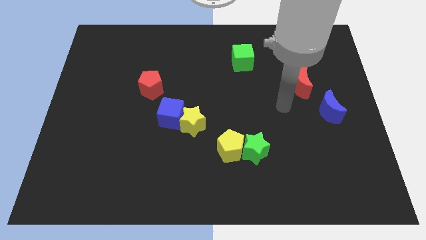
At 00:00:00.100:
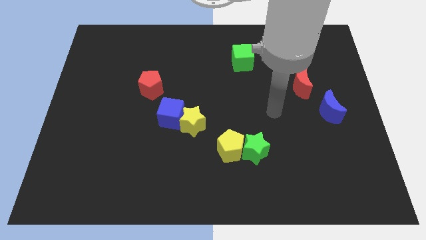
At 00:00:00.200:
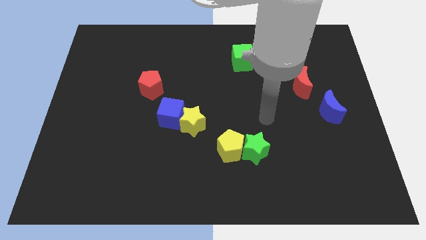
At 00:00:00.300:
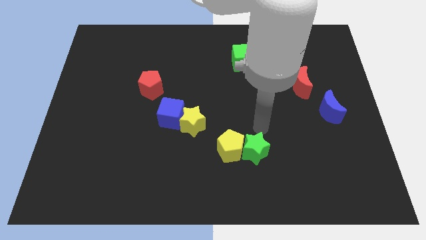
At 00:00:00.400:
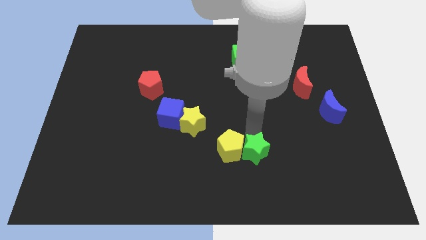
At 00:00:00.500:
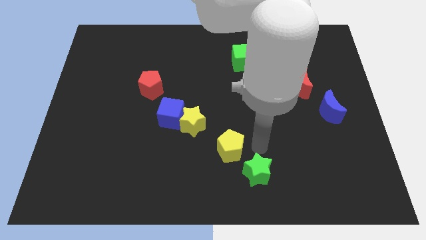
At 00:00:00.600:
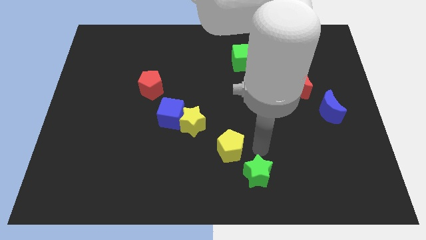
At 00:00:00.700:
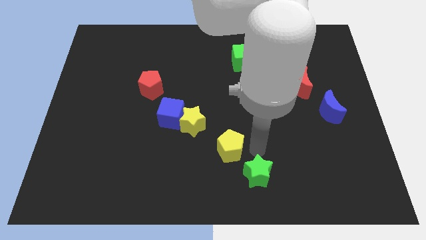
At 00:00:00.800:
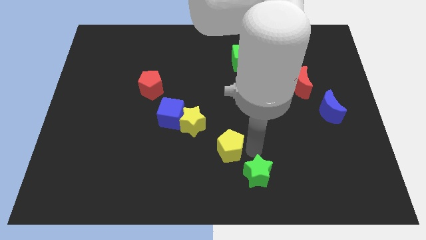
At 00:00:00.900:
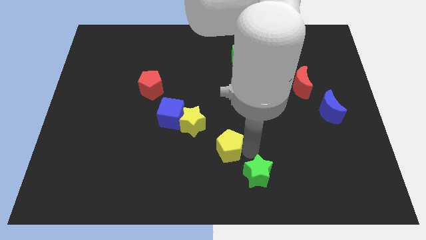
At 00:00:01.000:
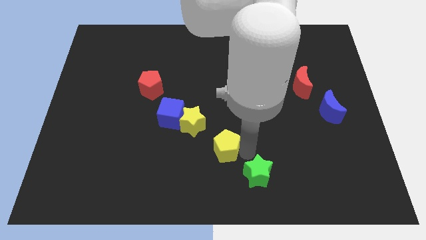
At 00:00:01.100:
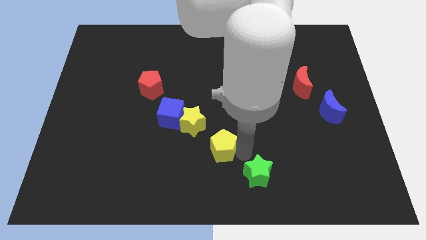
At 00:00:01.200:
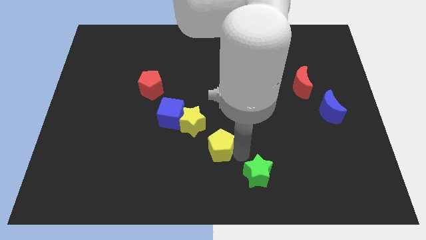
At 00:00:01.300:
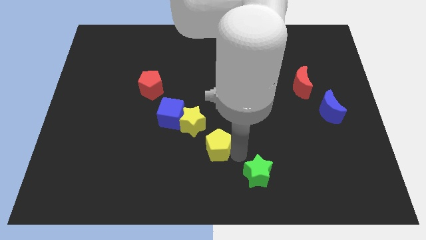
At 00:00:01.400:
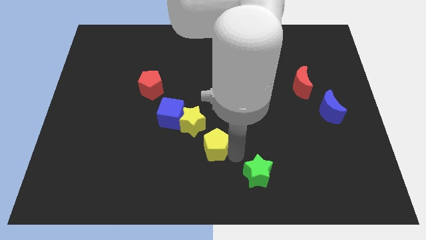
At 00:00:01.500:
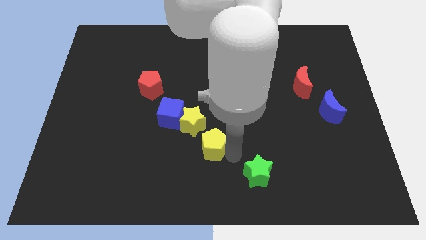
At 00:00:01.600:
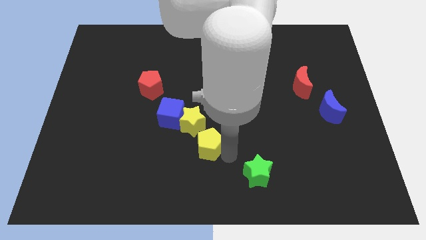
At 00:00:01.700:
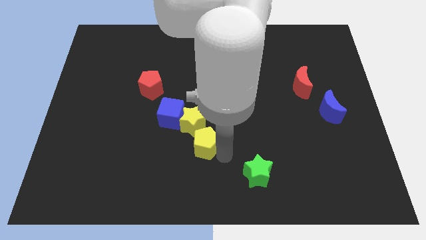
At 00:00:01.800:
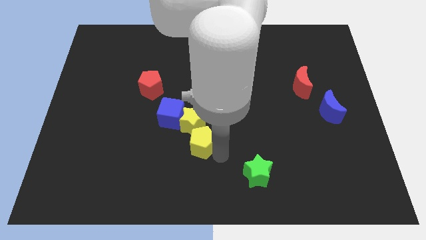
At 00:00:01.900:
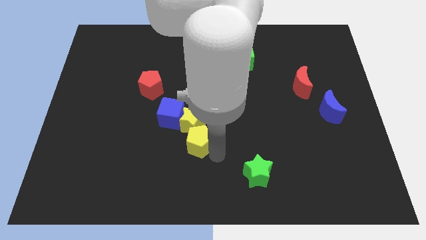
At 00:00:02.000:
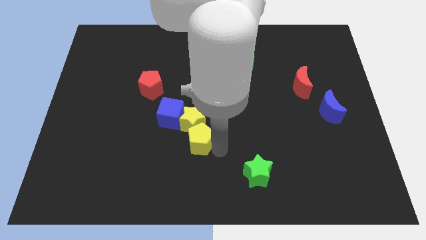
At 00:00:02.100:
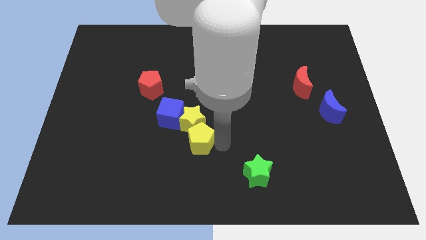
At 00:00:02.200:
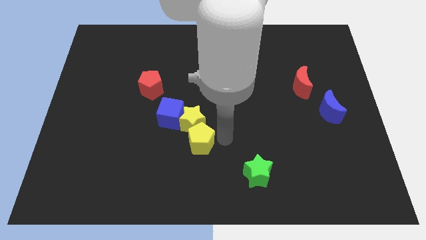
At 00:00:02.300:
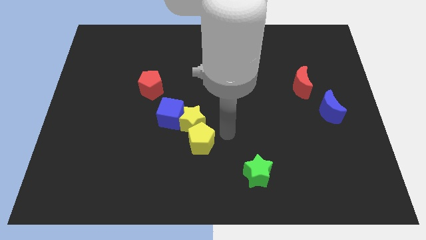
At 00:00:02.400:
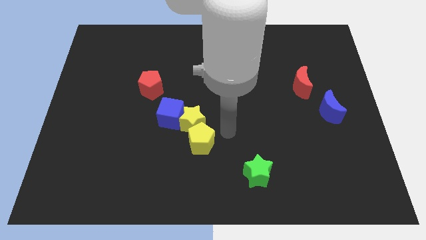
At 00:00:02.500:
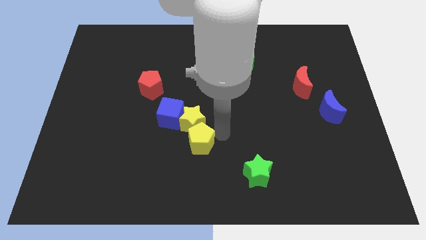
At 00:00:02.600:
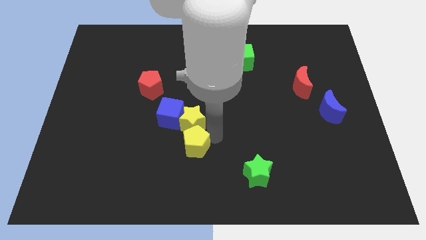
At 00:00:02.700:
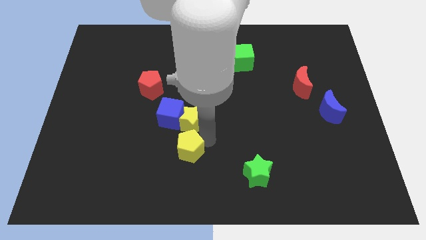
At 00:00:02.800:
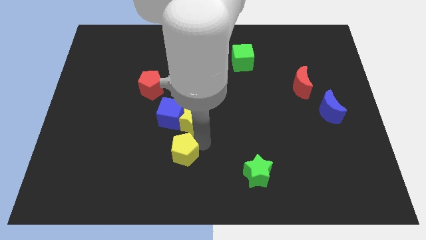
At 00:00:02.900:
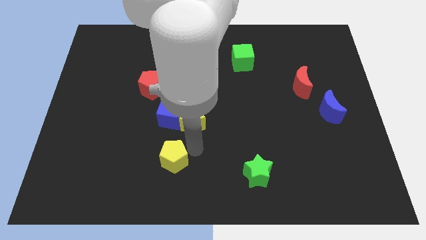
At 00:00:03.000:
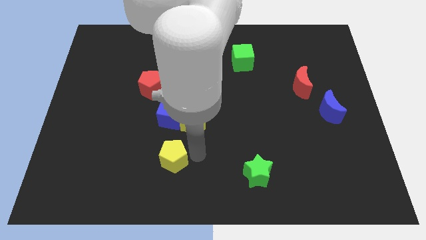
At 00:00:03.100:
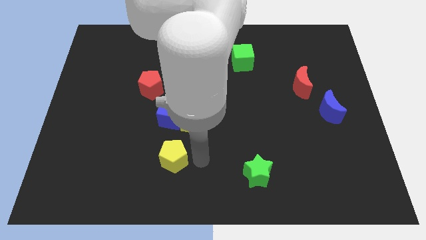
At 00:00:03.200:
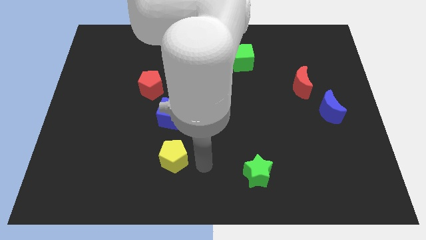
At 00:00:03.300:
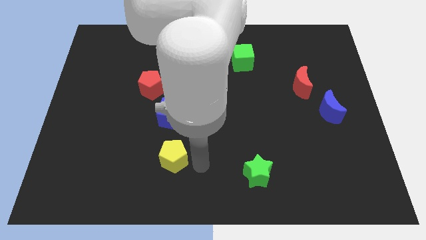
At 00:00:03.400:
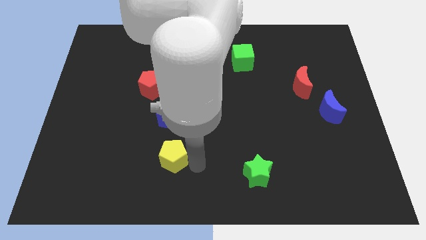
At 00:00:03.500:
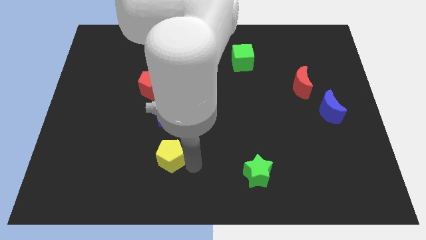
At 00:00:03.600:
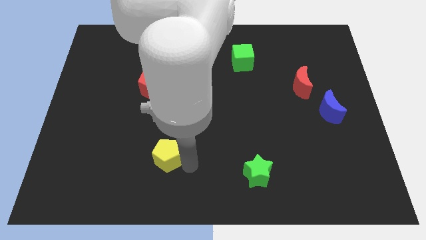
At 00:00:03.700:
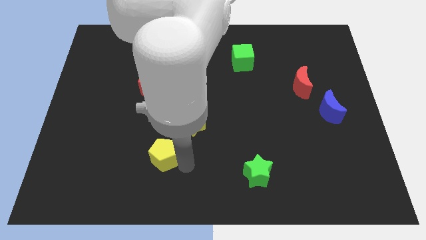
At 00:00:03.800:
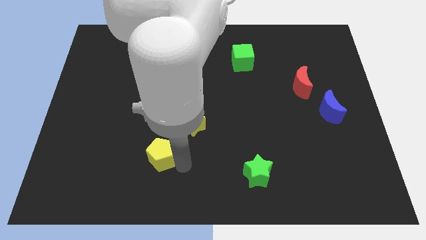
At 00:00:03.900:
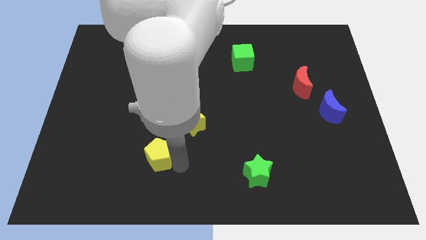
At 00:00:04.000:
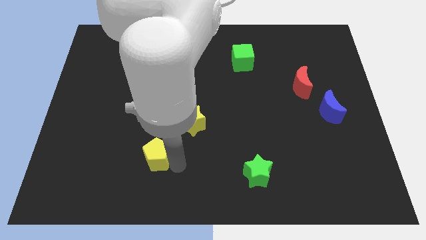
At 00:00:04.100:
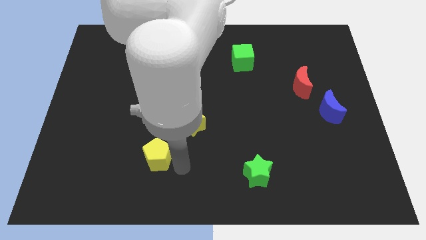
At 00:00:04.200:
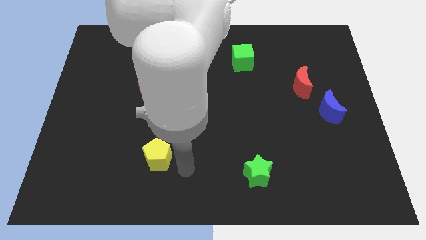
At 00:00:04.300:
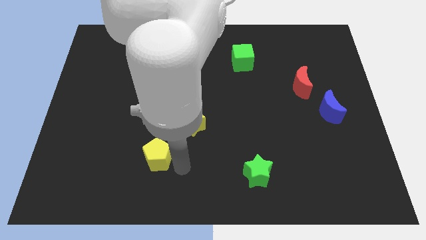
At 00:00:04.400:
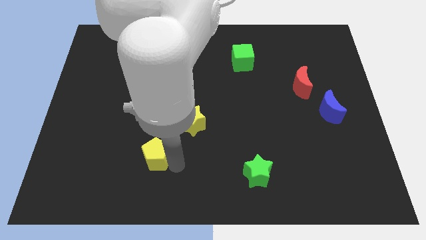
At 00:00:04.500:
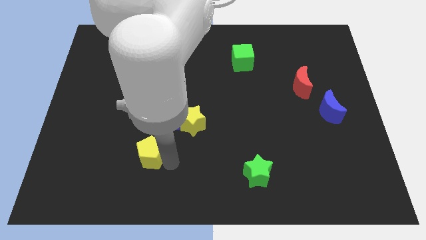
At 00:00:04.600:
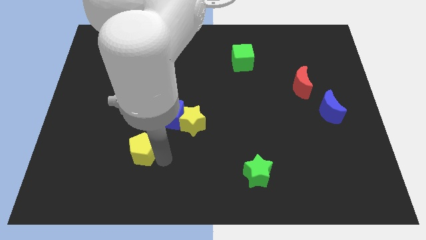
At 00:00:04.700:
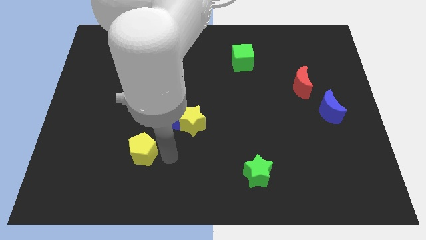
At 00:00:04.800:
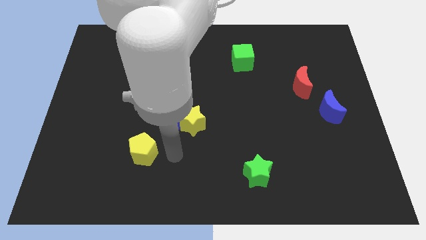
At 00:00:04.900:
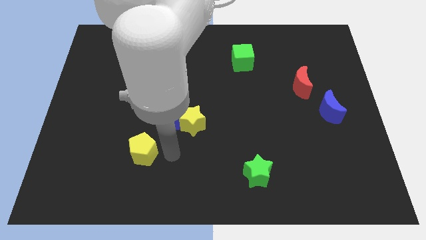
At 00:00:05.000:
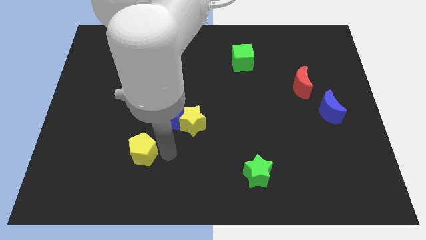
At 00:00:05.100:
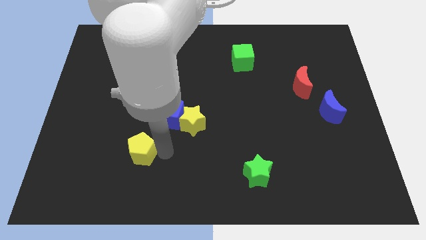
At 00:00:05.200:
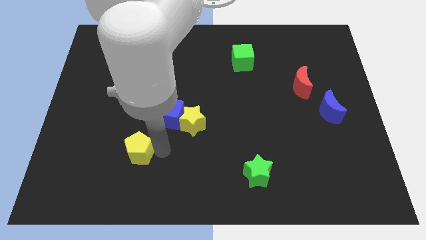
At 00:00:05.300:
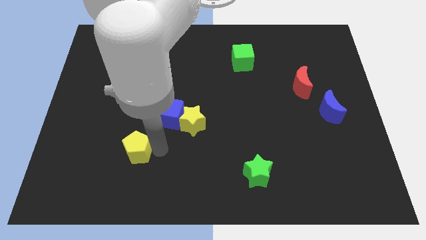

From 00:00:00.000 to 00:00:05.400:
slide the yellow pentagon to the left

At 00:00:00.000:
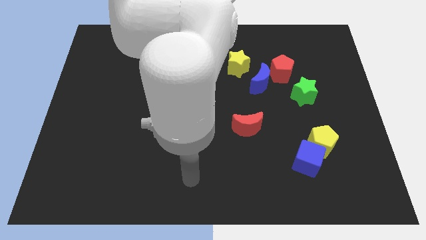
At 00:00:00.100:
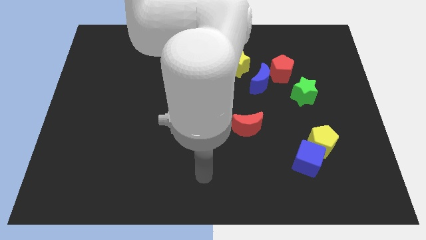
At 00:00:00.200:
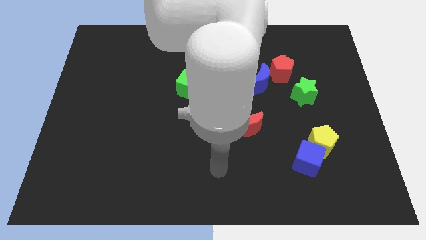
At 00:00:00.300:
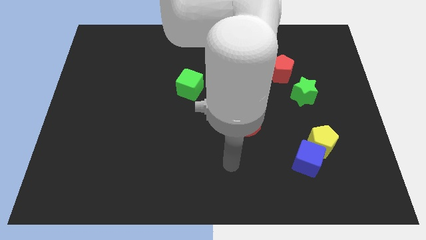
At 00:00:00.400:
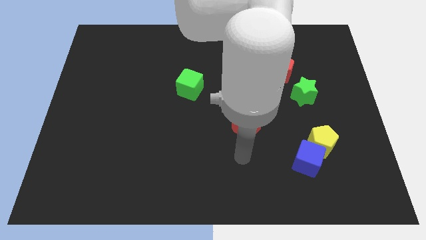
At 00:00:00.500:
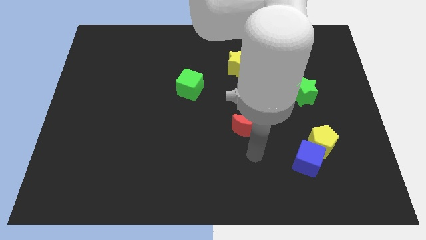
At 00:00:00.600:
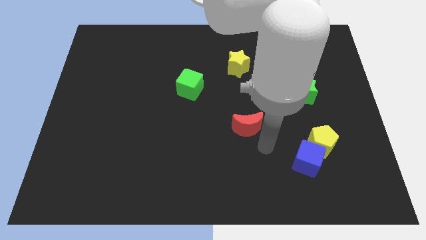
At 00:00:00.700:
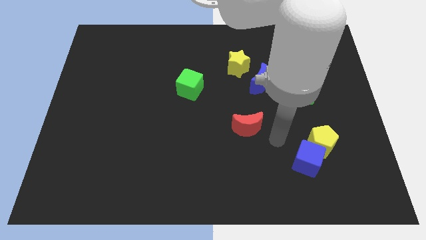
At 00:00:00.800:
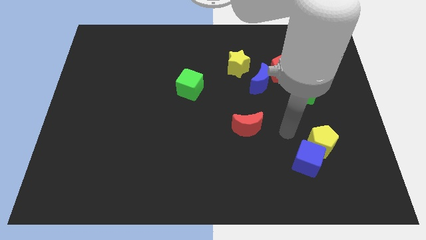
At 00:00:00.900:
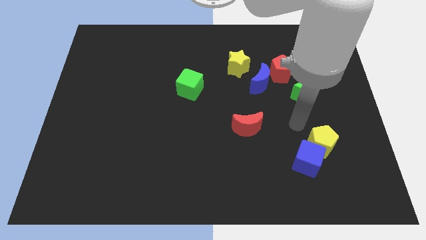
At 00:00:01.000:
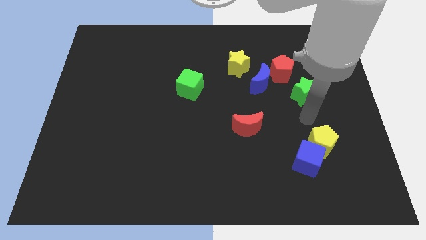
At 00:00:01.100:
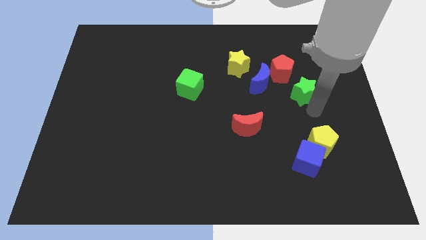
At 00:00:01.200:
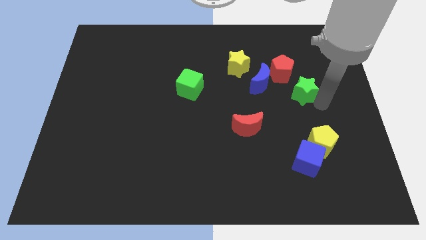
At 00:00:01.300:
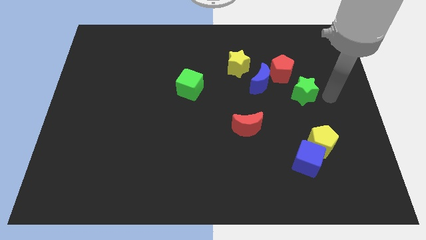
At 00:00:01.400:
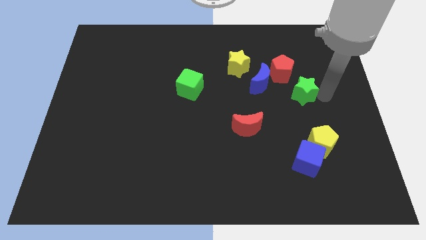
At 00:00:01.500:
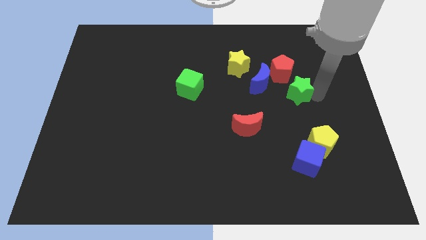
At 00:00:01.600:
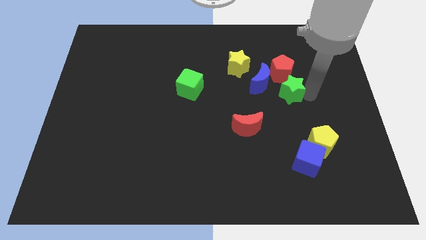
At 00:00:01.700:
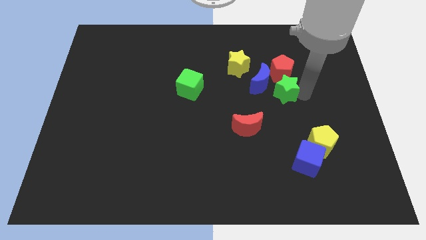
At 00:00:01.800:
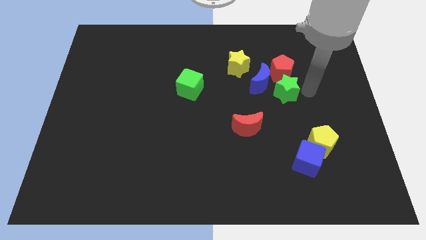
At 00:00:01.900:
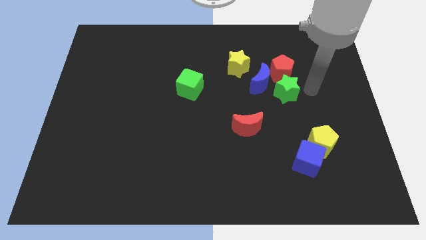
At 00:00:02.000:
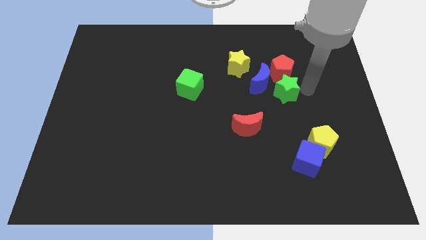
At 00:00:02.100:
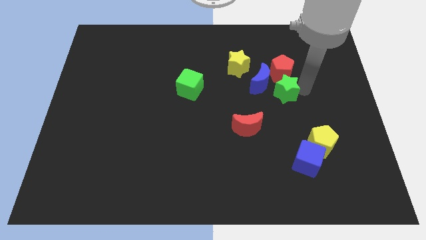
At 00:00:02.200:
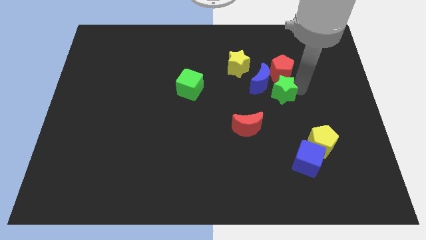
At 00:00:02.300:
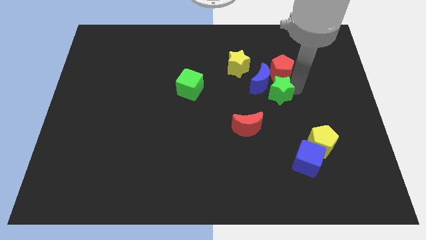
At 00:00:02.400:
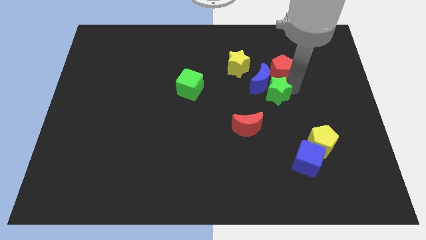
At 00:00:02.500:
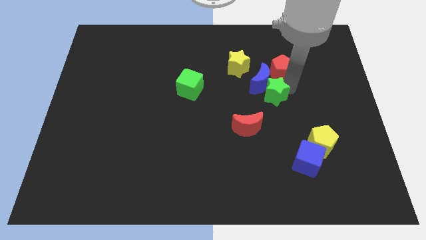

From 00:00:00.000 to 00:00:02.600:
move the green star to the left somewhat
